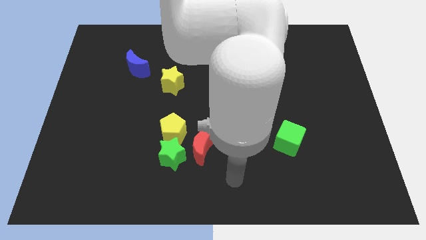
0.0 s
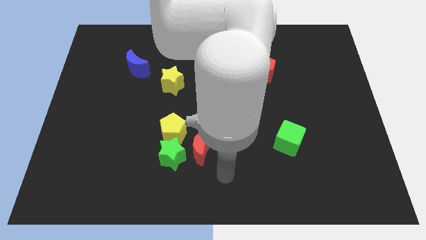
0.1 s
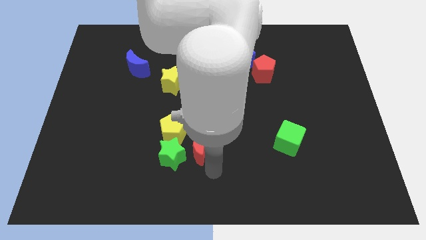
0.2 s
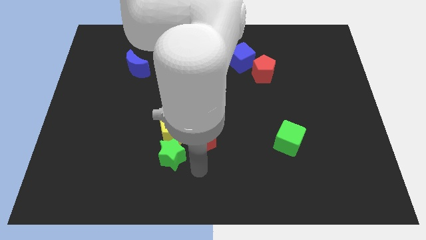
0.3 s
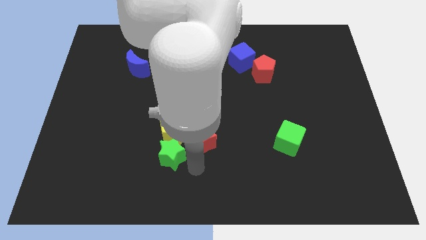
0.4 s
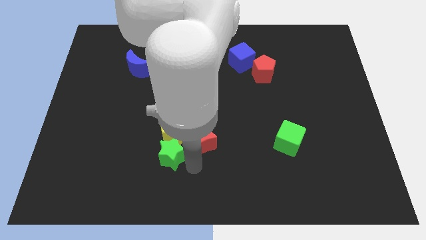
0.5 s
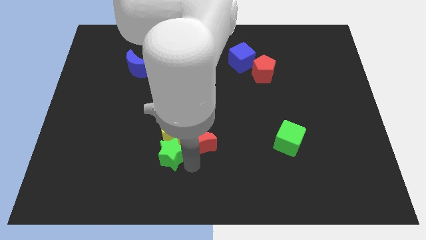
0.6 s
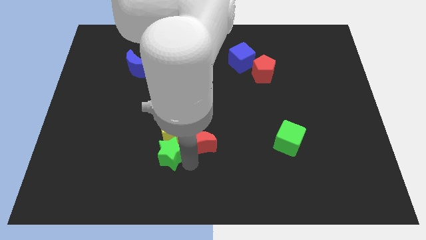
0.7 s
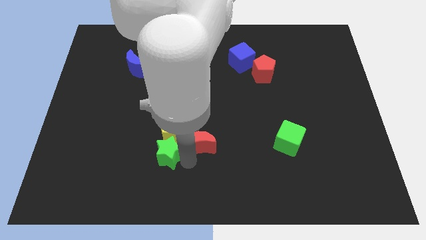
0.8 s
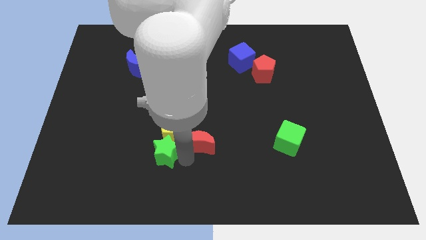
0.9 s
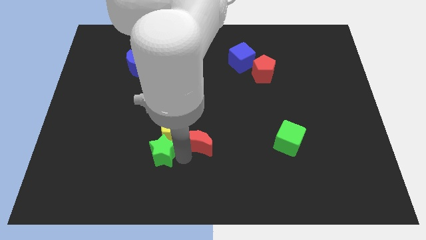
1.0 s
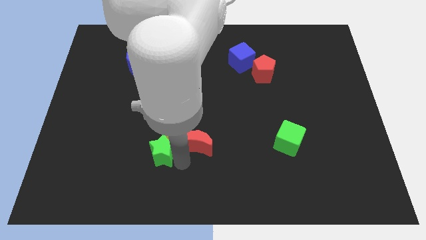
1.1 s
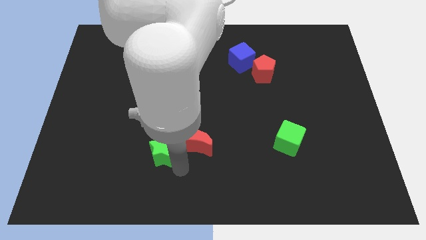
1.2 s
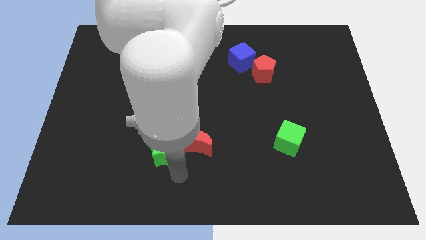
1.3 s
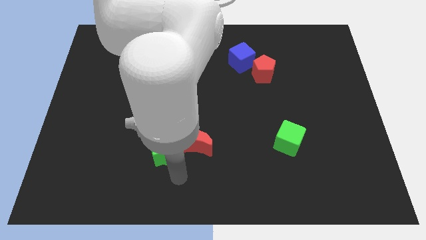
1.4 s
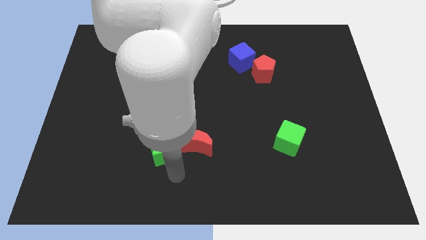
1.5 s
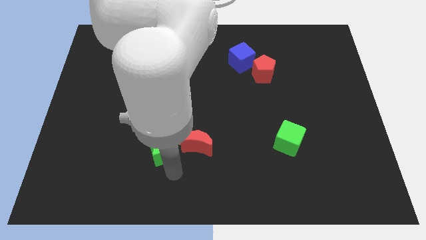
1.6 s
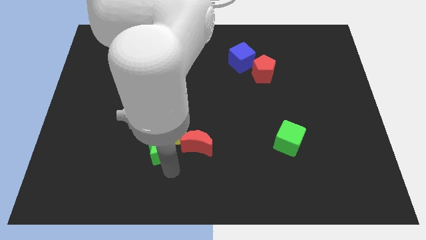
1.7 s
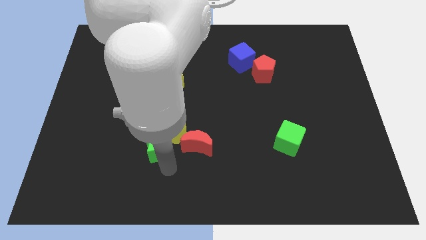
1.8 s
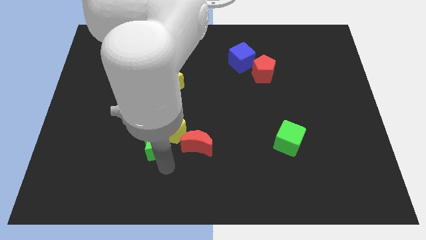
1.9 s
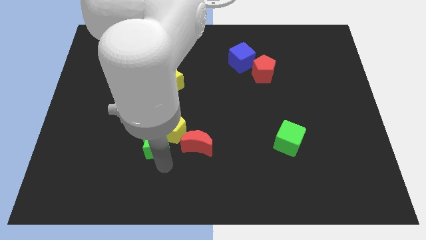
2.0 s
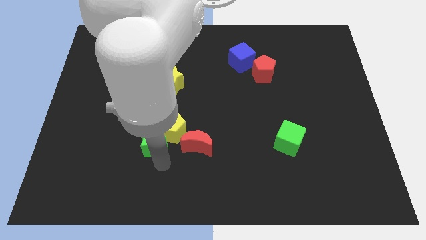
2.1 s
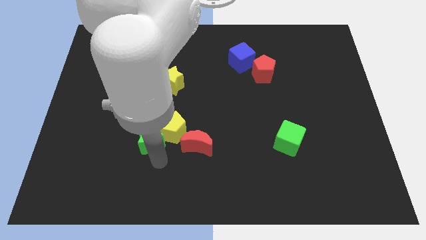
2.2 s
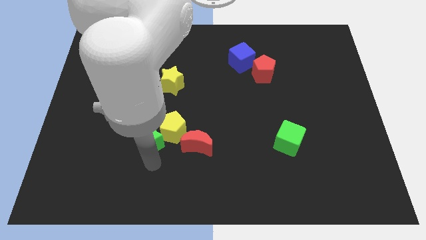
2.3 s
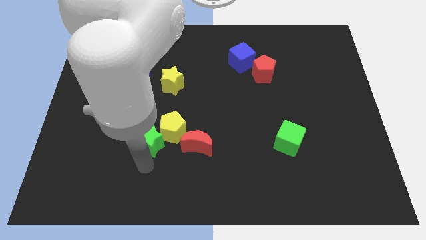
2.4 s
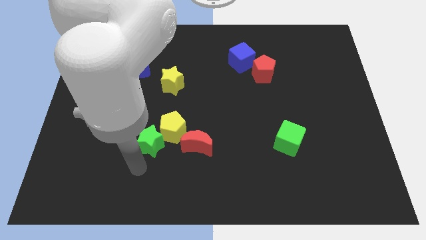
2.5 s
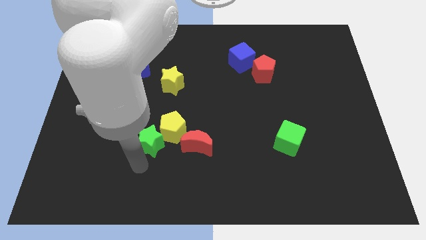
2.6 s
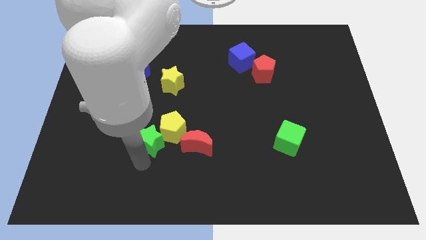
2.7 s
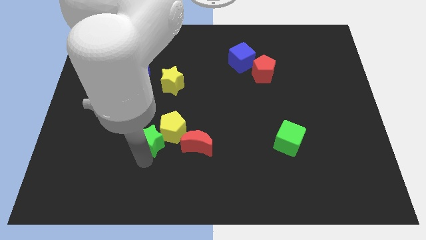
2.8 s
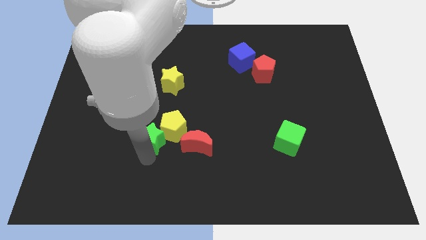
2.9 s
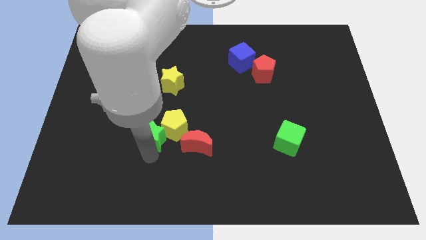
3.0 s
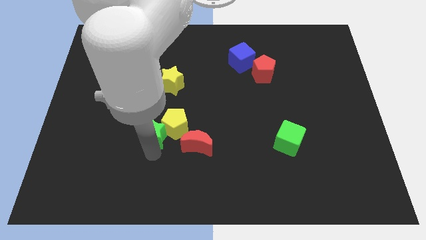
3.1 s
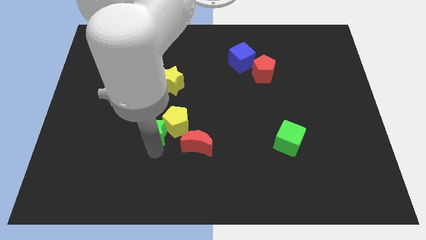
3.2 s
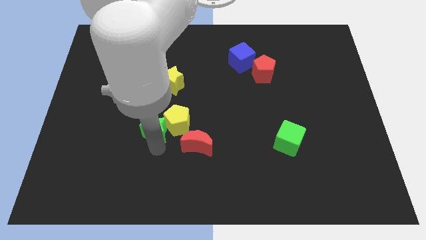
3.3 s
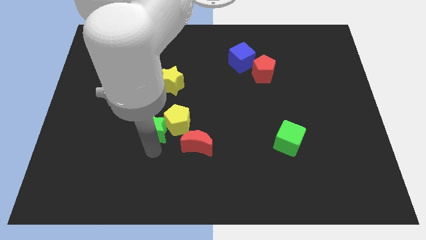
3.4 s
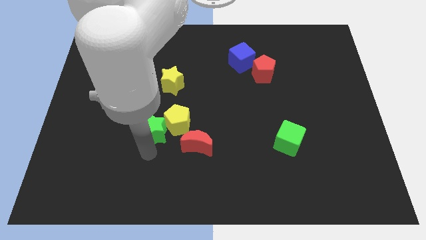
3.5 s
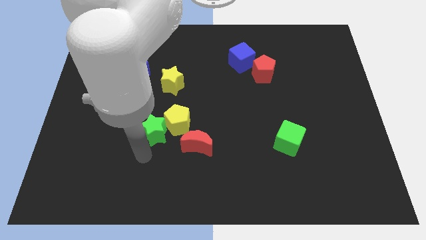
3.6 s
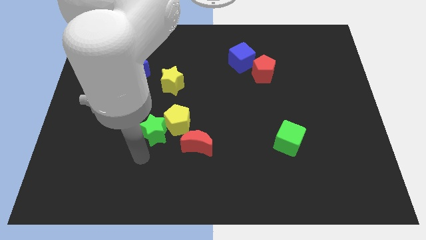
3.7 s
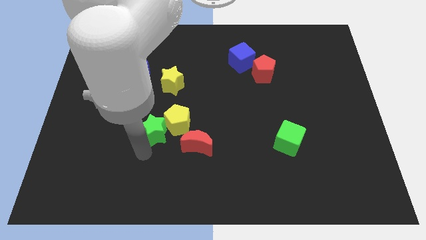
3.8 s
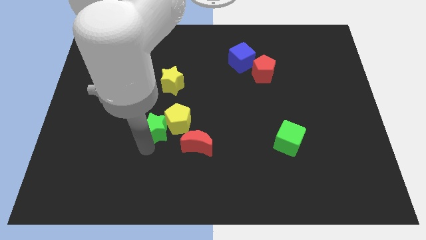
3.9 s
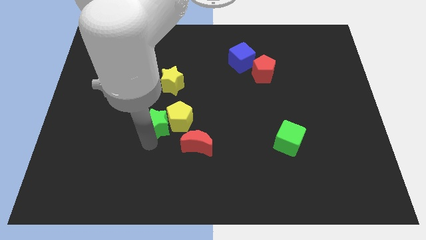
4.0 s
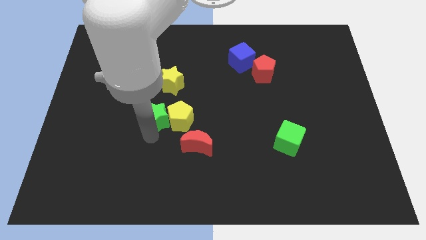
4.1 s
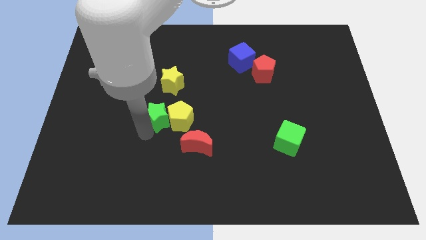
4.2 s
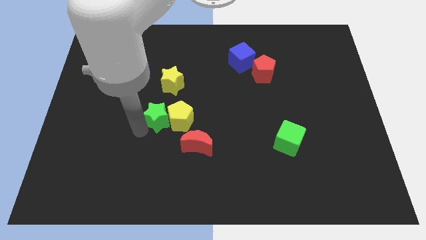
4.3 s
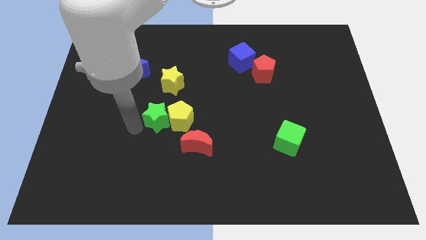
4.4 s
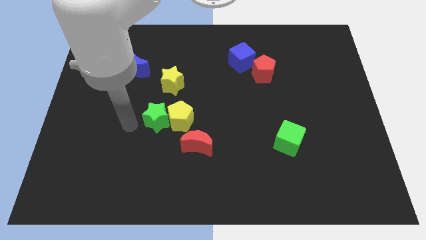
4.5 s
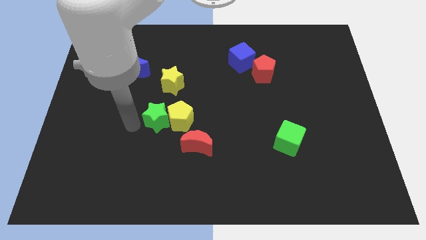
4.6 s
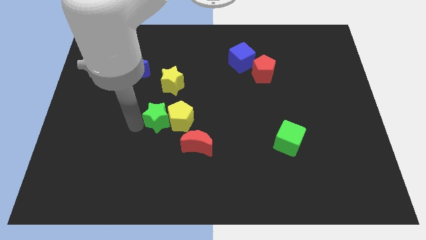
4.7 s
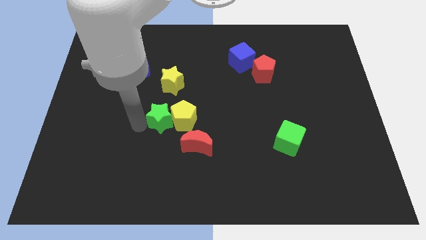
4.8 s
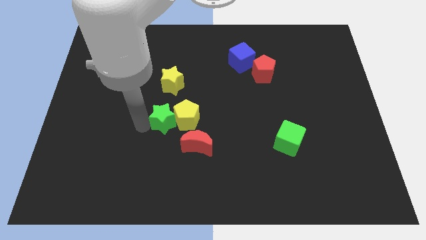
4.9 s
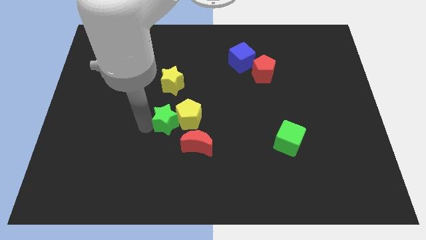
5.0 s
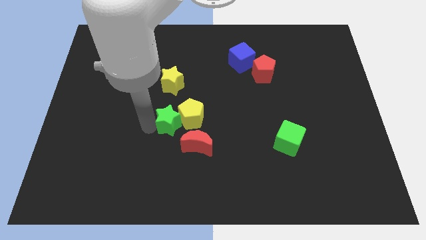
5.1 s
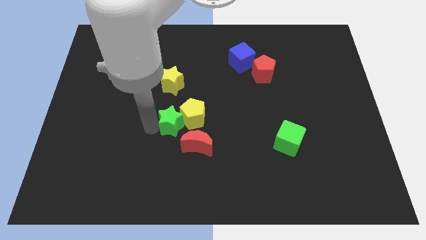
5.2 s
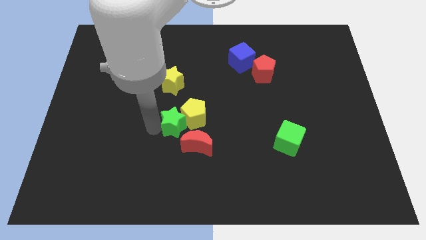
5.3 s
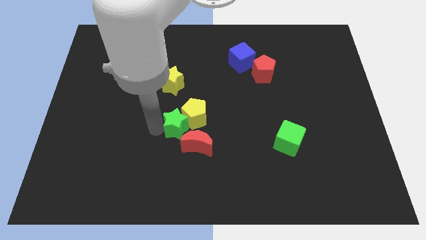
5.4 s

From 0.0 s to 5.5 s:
push the green star above the red moon

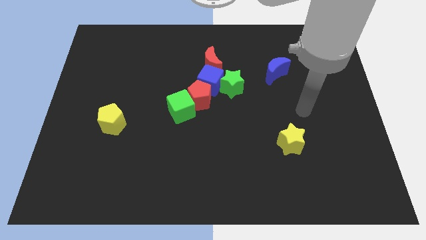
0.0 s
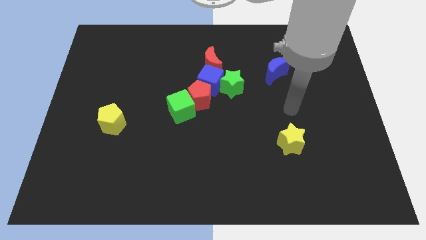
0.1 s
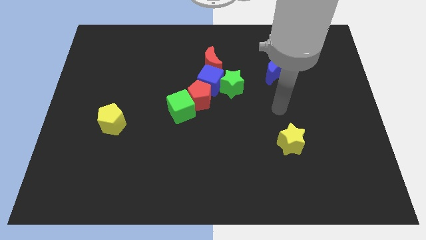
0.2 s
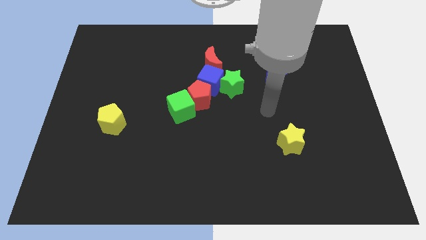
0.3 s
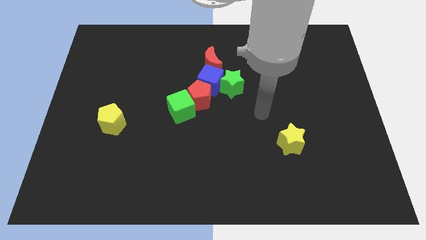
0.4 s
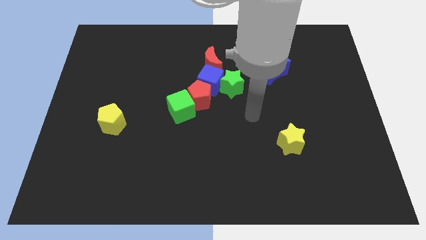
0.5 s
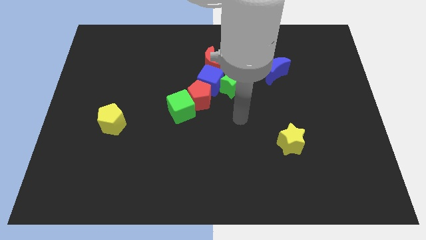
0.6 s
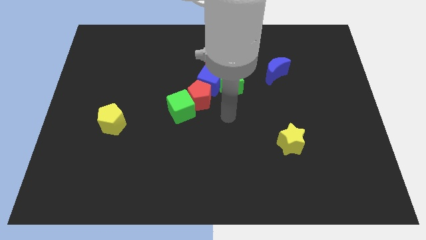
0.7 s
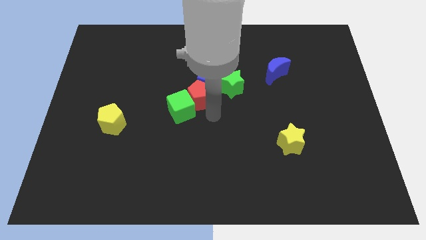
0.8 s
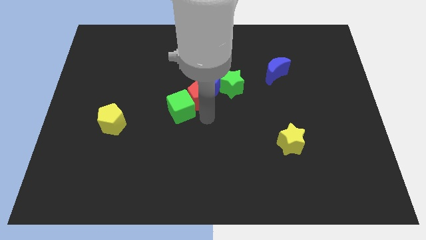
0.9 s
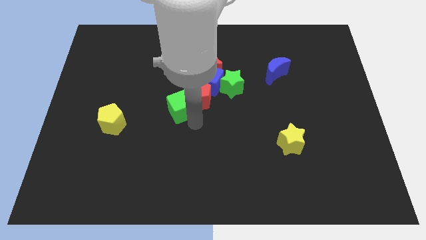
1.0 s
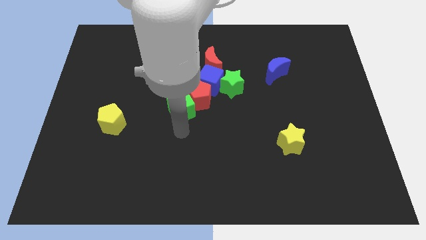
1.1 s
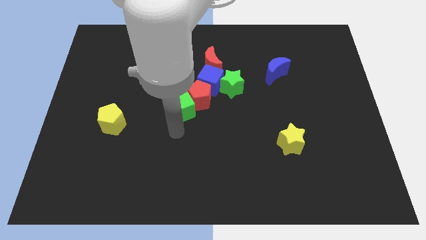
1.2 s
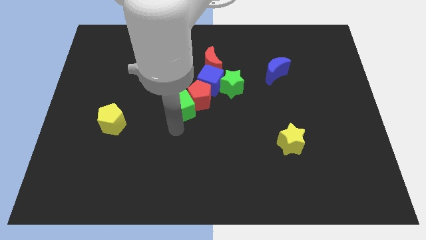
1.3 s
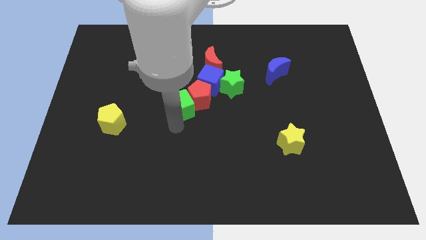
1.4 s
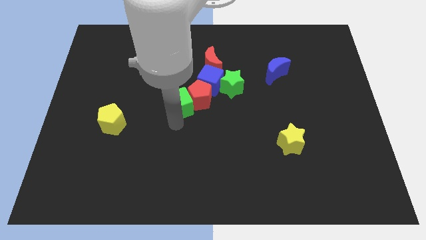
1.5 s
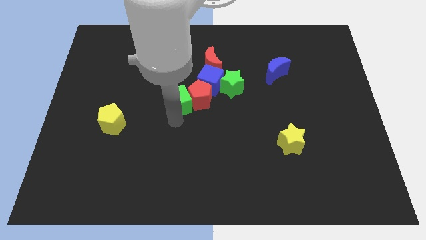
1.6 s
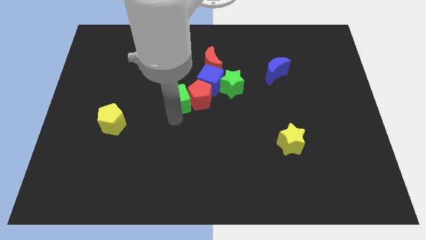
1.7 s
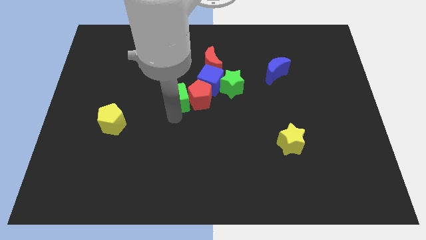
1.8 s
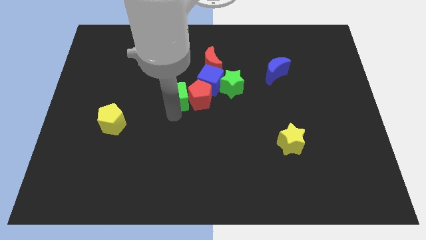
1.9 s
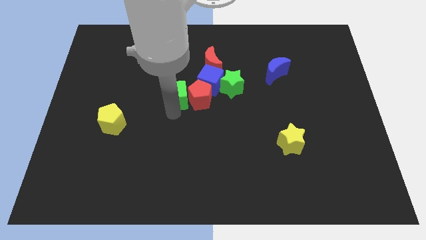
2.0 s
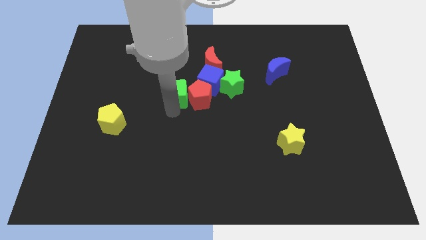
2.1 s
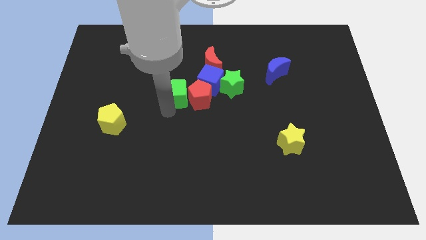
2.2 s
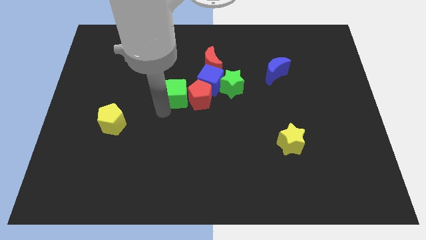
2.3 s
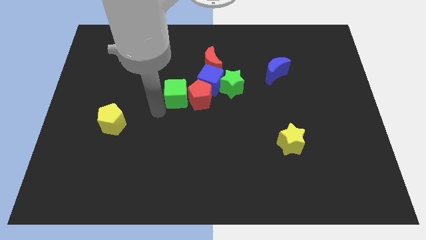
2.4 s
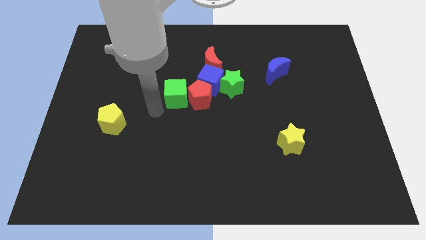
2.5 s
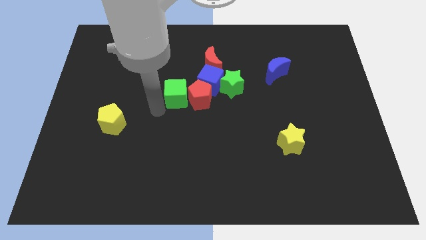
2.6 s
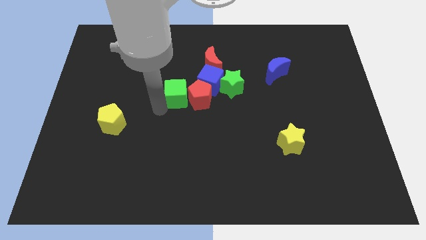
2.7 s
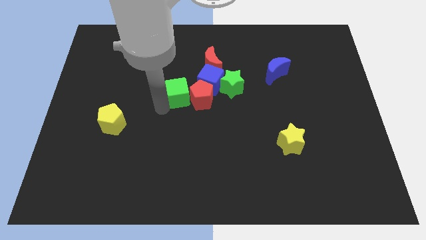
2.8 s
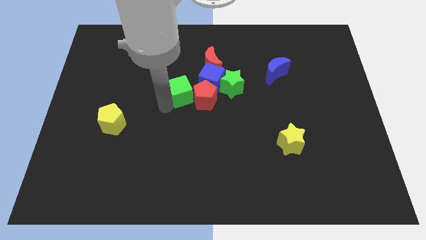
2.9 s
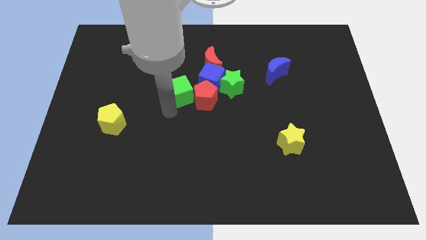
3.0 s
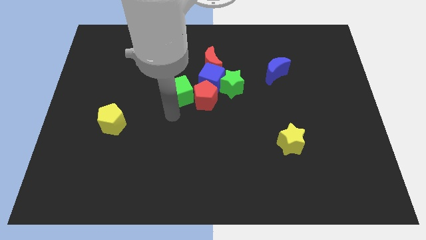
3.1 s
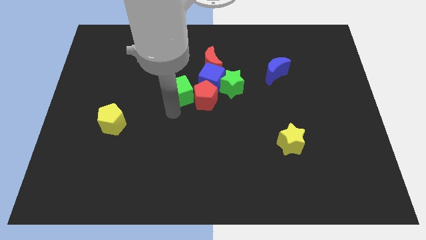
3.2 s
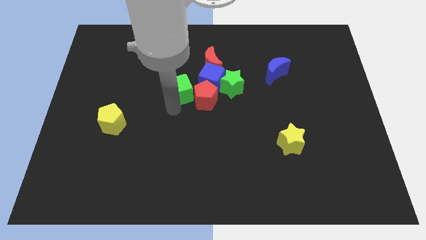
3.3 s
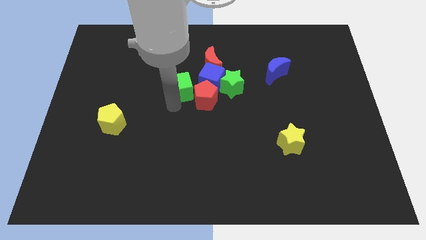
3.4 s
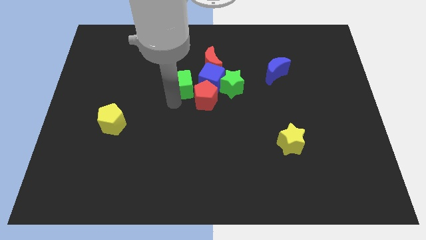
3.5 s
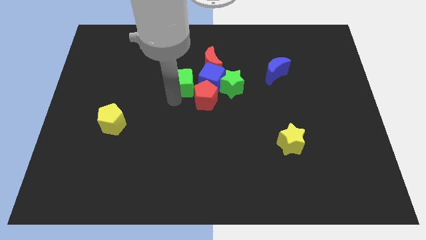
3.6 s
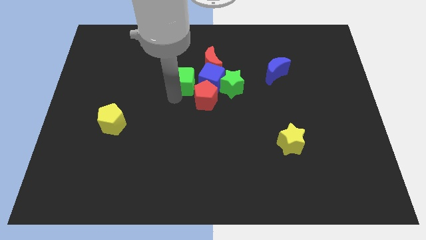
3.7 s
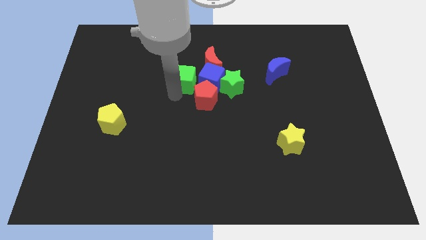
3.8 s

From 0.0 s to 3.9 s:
move the green cube diagonally up and to the left of the blue cube
